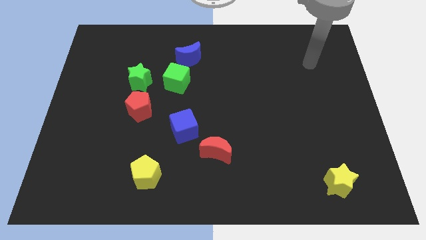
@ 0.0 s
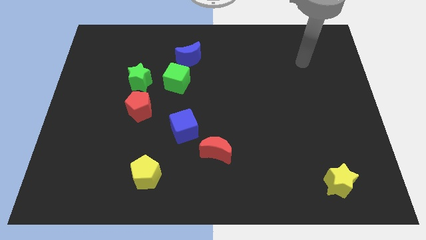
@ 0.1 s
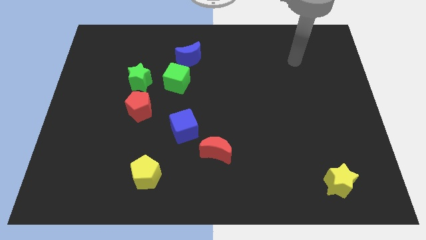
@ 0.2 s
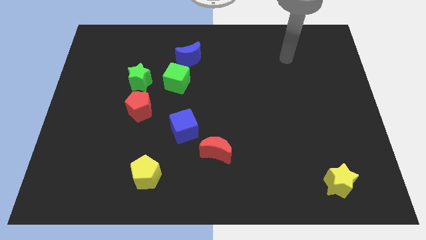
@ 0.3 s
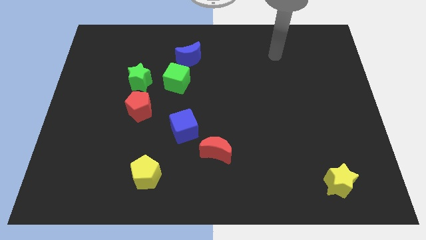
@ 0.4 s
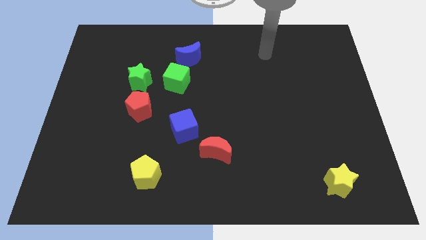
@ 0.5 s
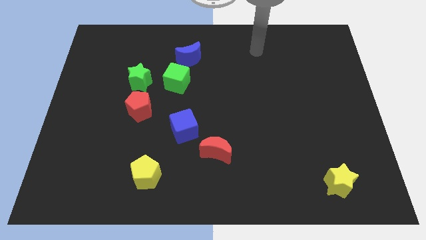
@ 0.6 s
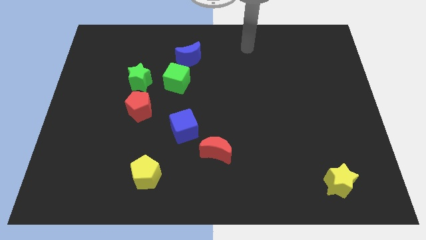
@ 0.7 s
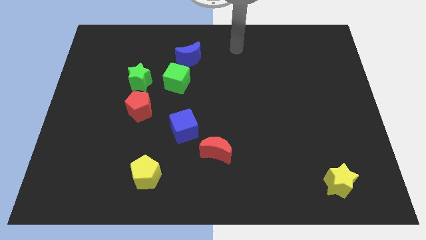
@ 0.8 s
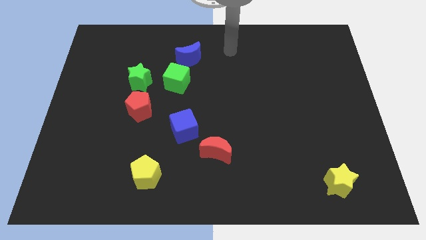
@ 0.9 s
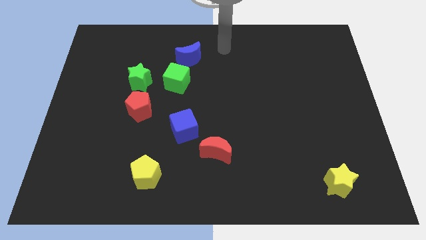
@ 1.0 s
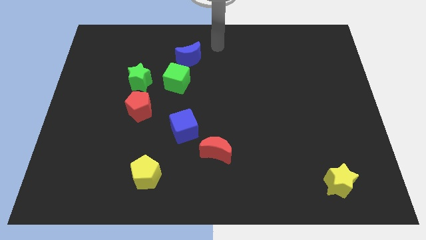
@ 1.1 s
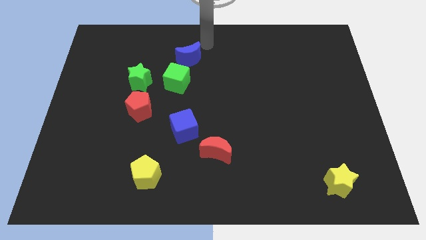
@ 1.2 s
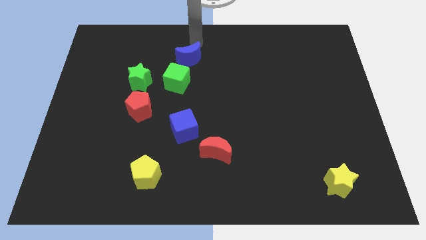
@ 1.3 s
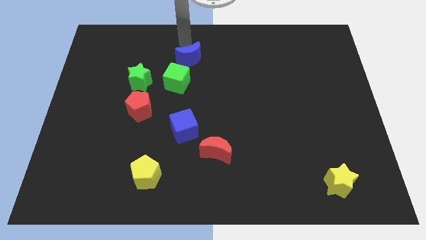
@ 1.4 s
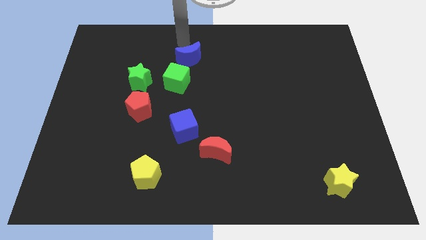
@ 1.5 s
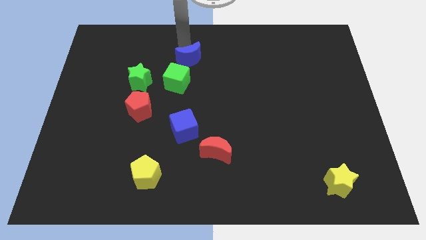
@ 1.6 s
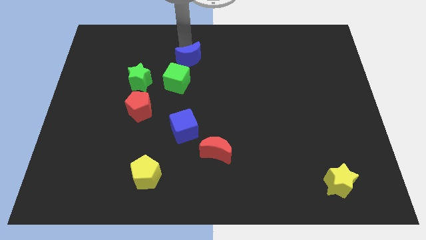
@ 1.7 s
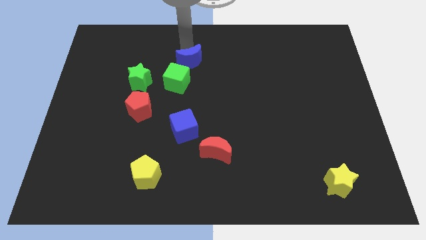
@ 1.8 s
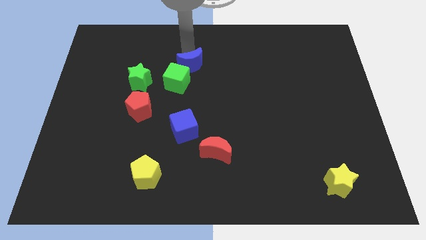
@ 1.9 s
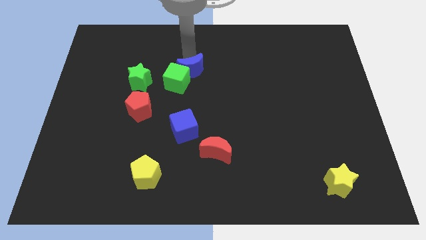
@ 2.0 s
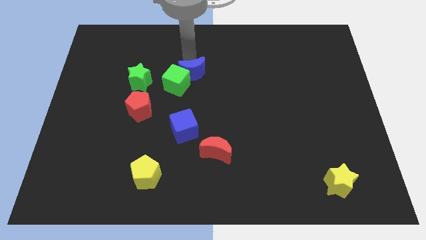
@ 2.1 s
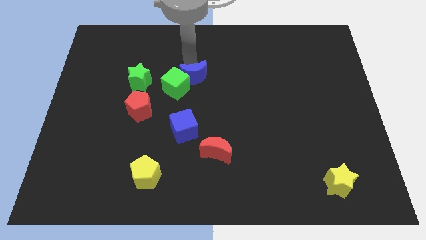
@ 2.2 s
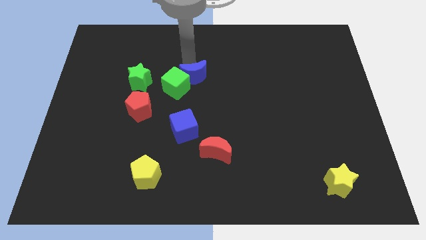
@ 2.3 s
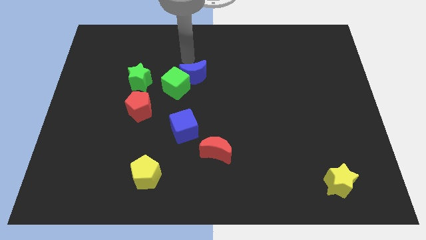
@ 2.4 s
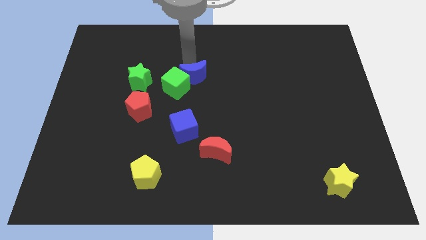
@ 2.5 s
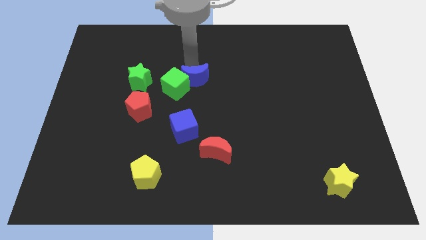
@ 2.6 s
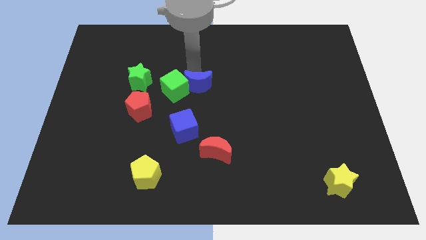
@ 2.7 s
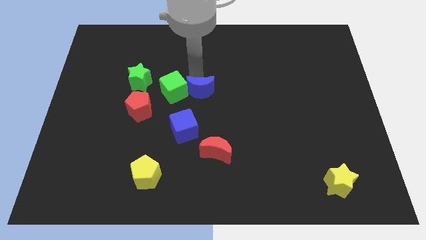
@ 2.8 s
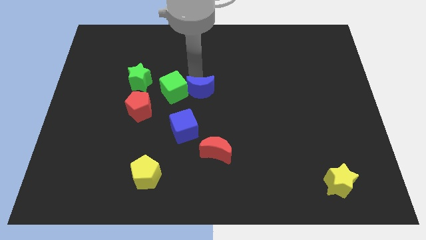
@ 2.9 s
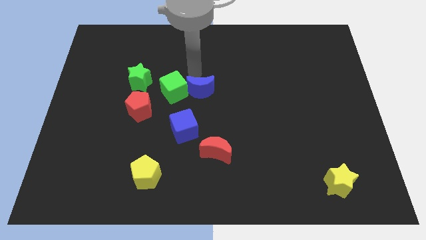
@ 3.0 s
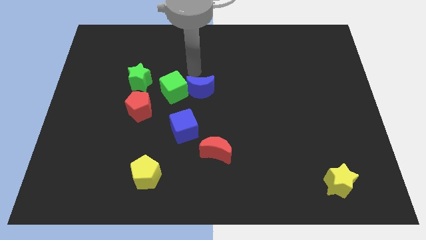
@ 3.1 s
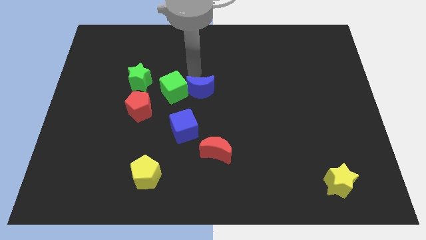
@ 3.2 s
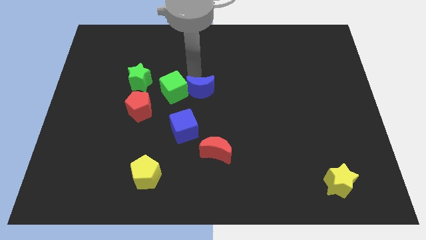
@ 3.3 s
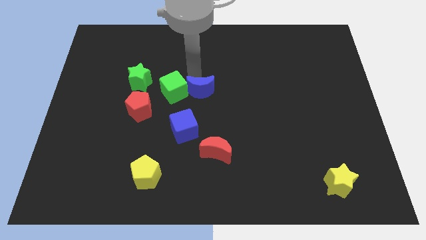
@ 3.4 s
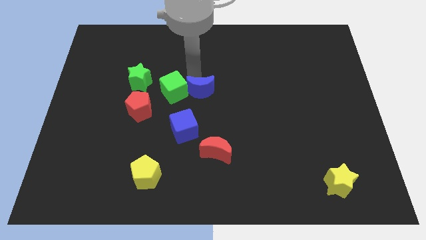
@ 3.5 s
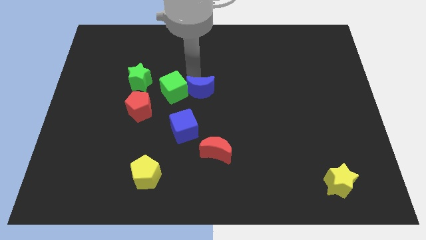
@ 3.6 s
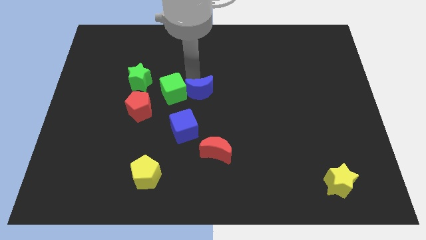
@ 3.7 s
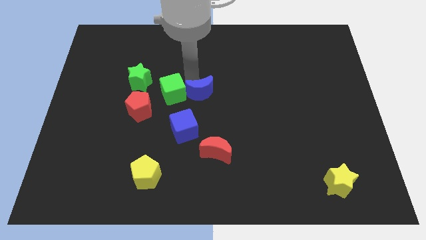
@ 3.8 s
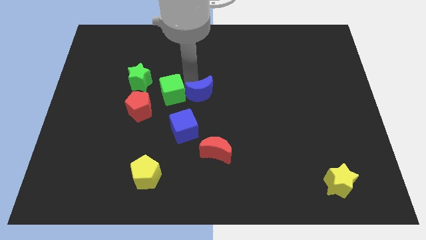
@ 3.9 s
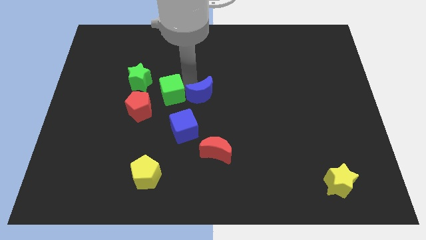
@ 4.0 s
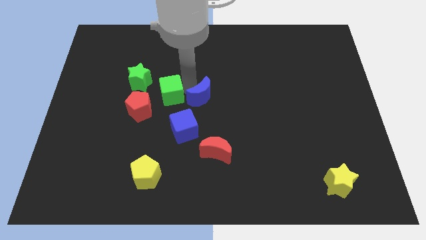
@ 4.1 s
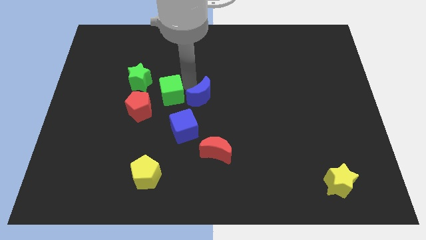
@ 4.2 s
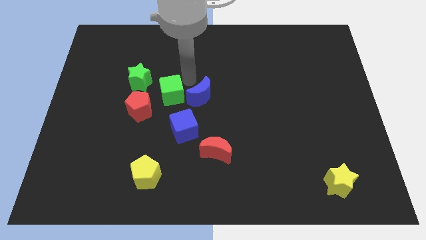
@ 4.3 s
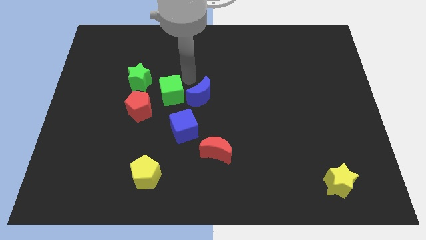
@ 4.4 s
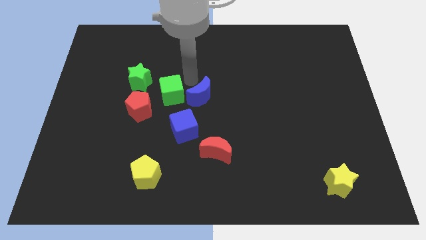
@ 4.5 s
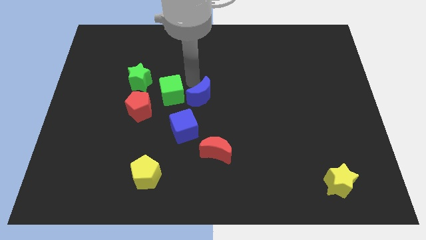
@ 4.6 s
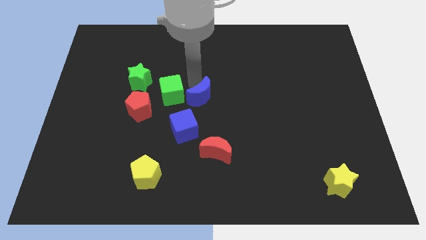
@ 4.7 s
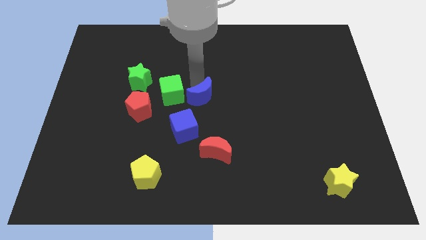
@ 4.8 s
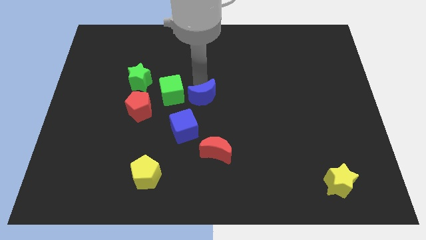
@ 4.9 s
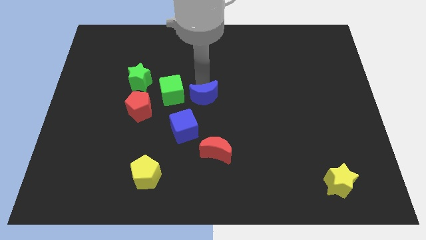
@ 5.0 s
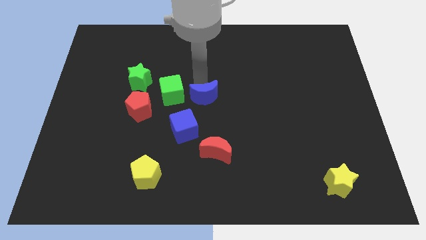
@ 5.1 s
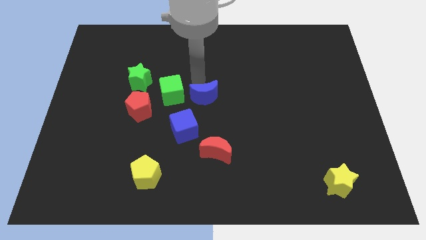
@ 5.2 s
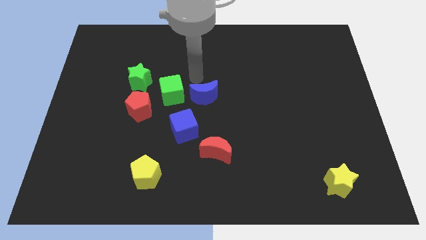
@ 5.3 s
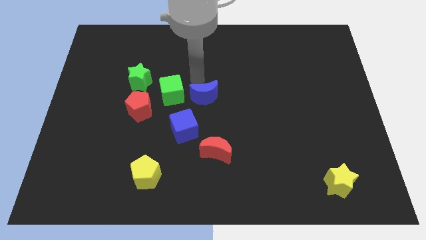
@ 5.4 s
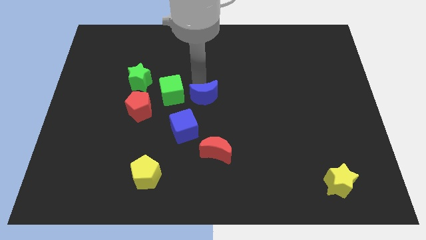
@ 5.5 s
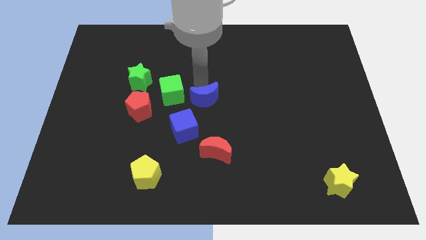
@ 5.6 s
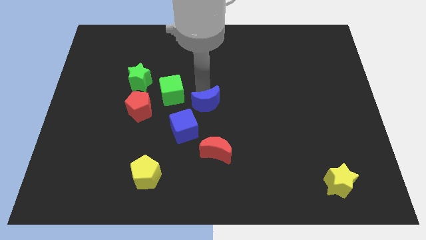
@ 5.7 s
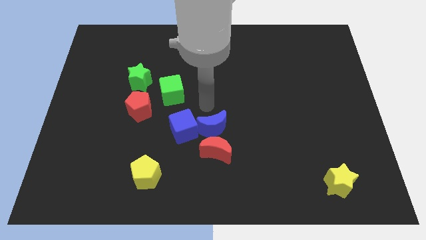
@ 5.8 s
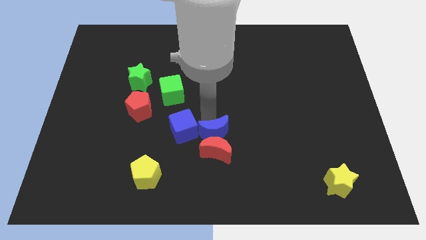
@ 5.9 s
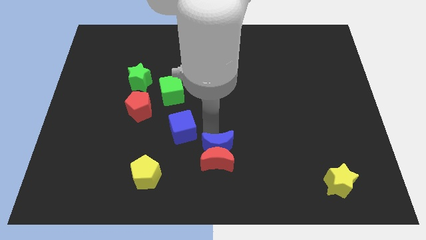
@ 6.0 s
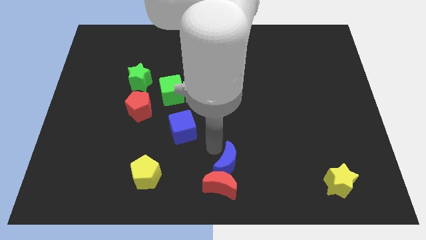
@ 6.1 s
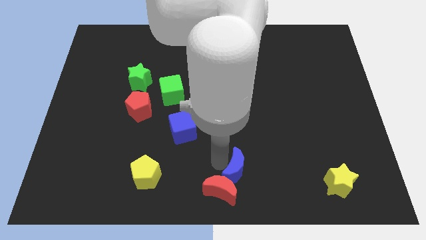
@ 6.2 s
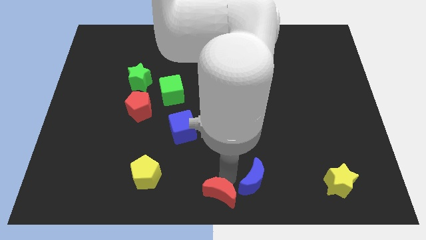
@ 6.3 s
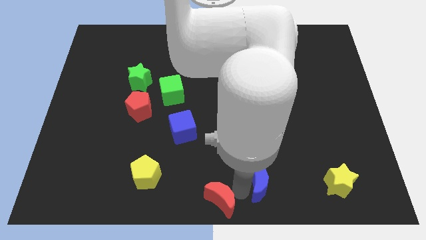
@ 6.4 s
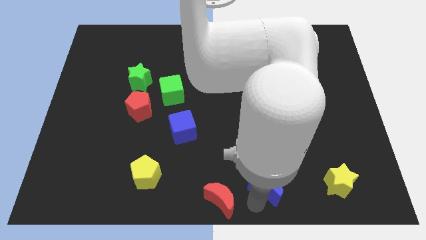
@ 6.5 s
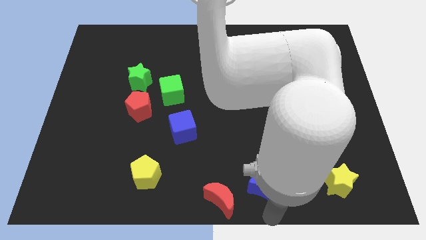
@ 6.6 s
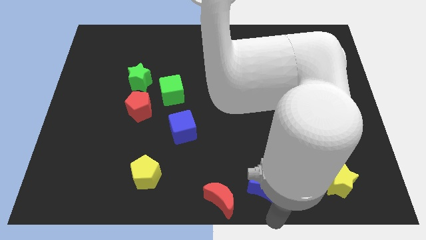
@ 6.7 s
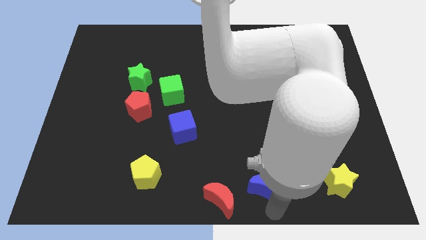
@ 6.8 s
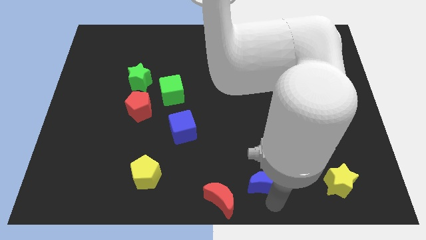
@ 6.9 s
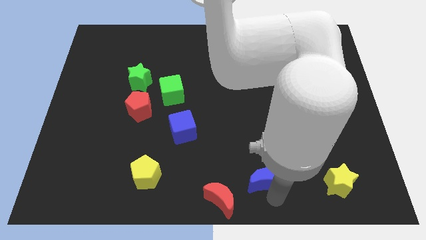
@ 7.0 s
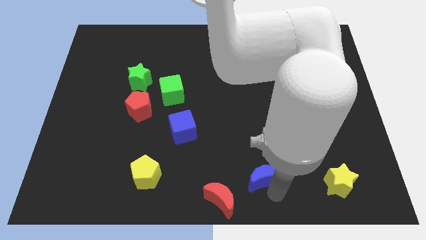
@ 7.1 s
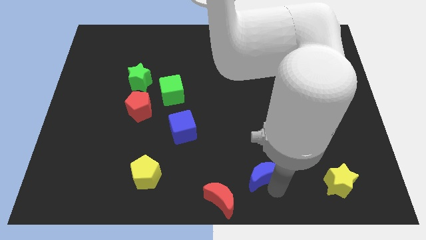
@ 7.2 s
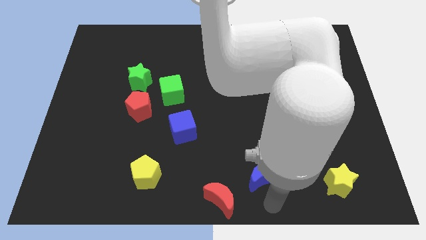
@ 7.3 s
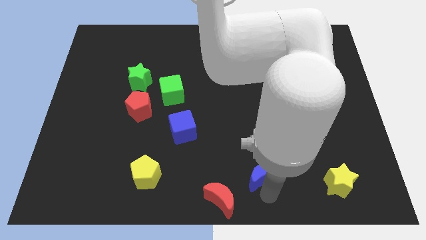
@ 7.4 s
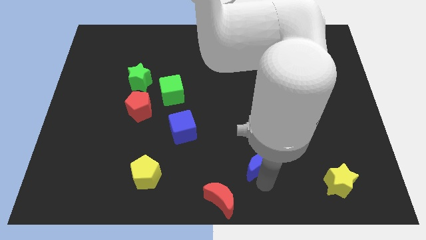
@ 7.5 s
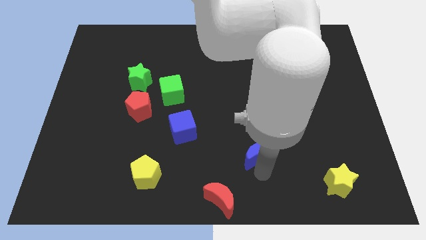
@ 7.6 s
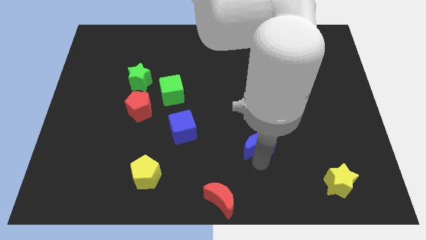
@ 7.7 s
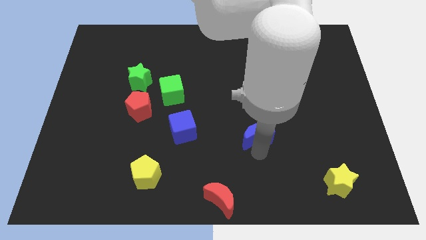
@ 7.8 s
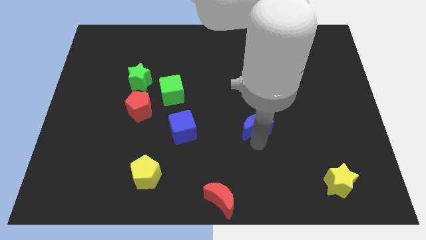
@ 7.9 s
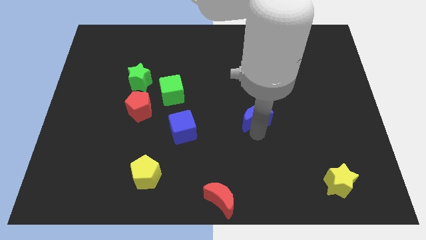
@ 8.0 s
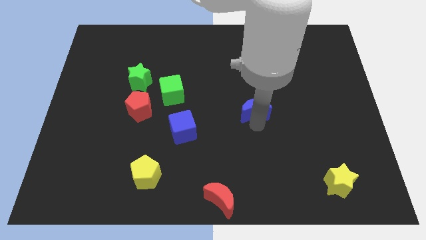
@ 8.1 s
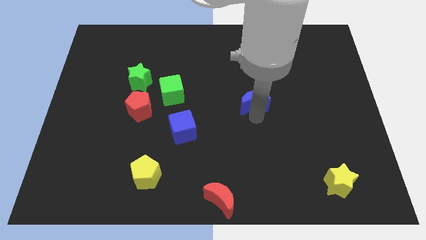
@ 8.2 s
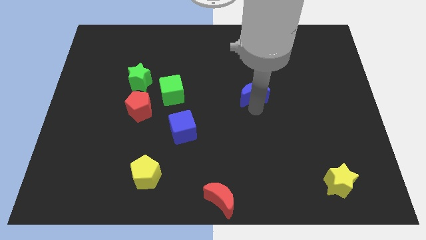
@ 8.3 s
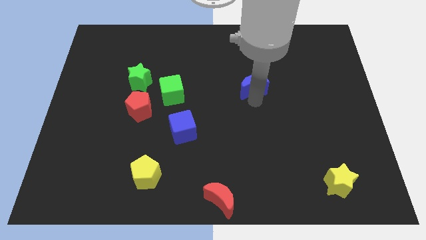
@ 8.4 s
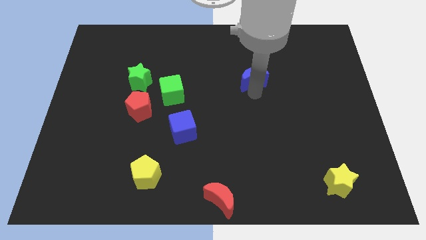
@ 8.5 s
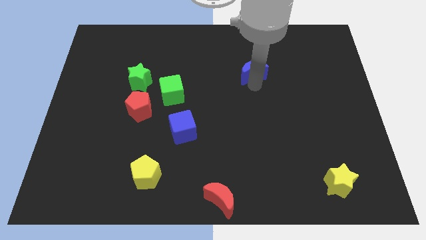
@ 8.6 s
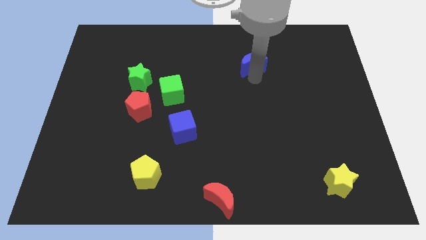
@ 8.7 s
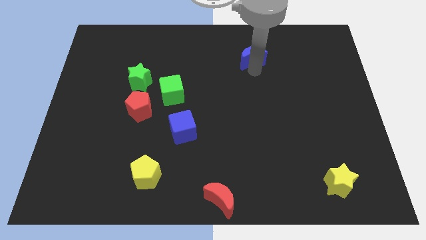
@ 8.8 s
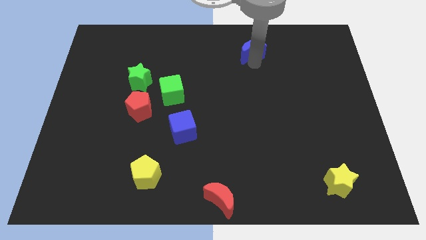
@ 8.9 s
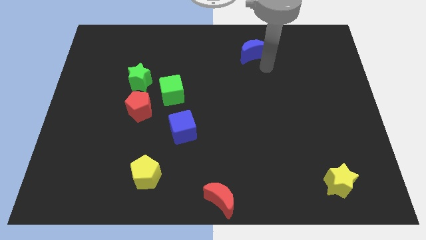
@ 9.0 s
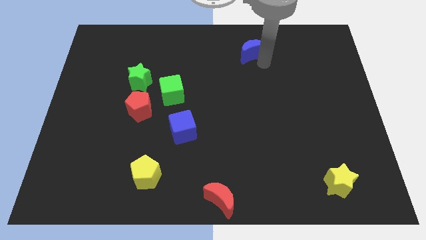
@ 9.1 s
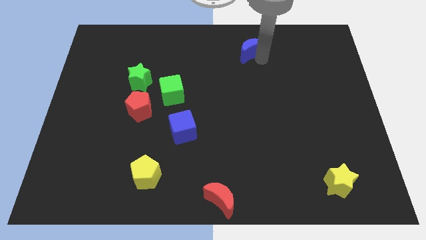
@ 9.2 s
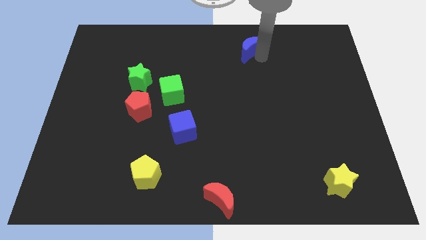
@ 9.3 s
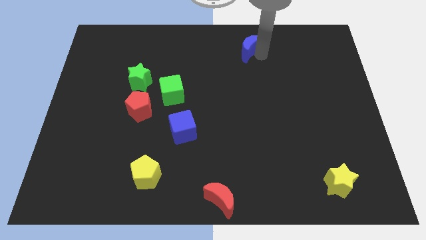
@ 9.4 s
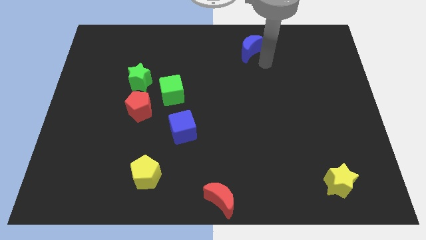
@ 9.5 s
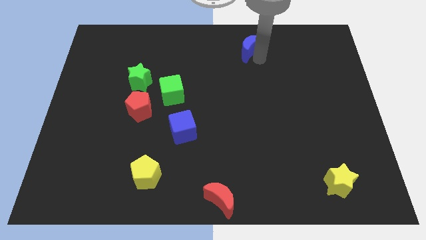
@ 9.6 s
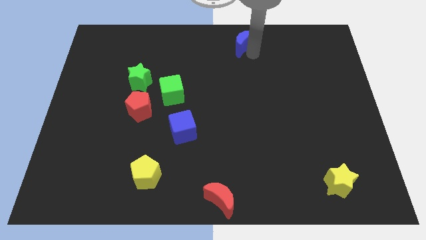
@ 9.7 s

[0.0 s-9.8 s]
move the blue moon to the towards your base
